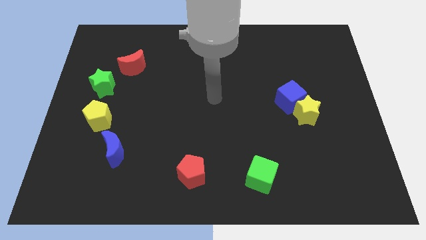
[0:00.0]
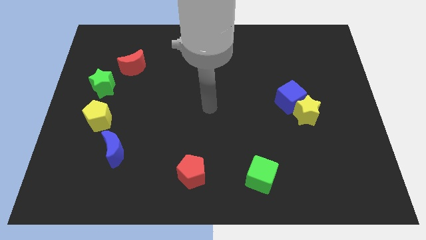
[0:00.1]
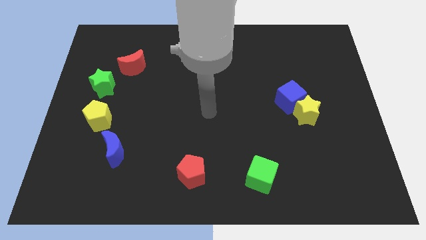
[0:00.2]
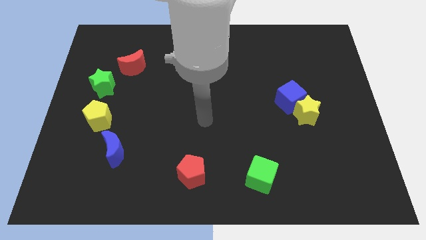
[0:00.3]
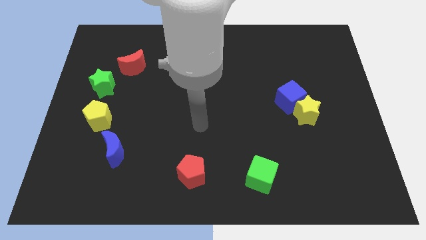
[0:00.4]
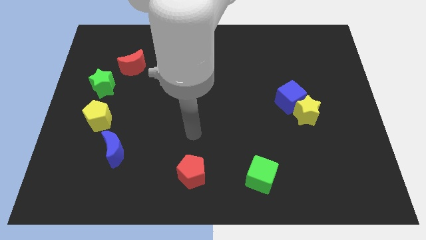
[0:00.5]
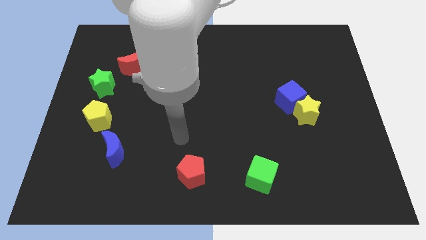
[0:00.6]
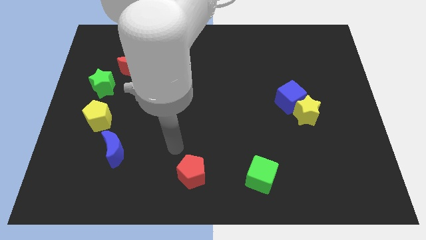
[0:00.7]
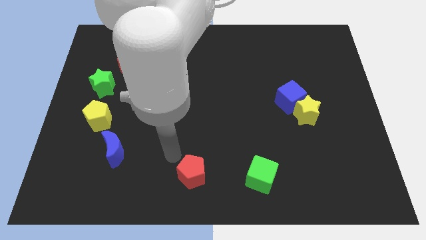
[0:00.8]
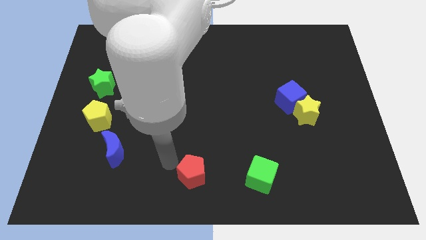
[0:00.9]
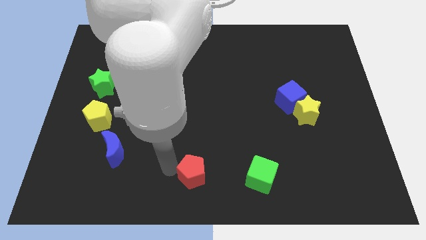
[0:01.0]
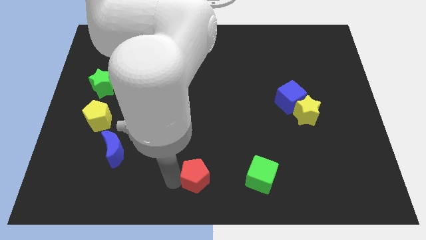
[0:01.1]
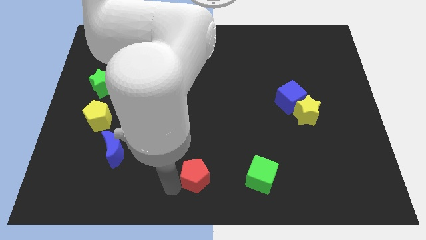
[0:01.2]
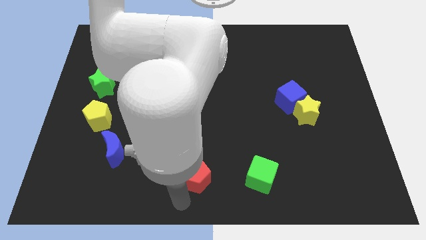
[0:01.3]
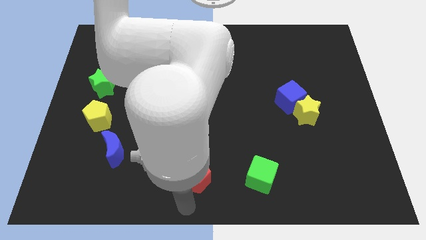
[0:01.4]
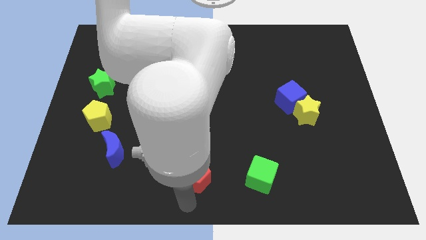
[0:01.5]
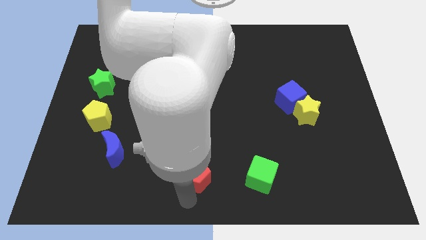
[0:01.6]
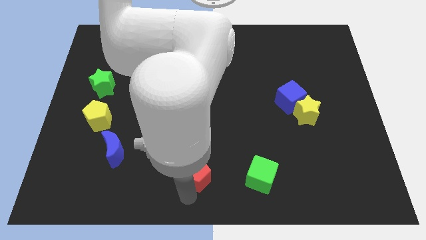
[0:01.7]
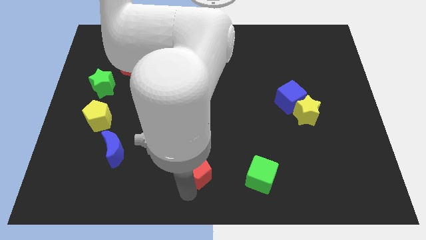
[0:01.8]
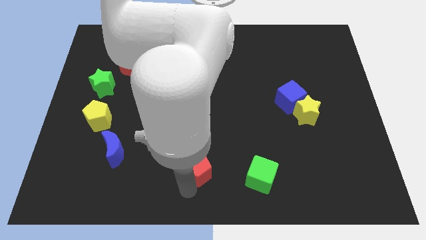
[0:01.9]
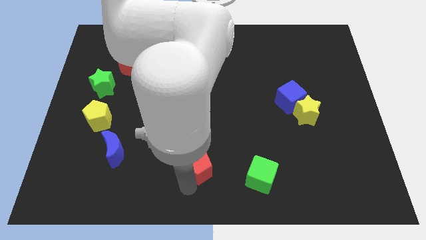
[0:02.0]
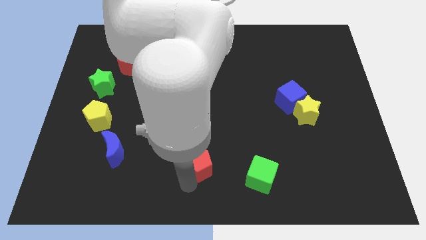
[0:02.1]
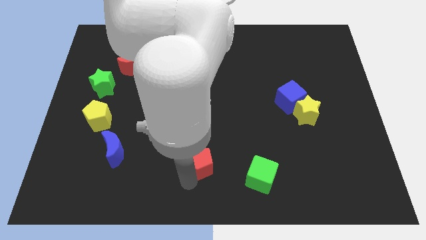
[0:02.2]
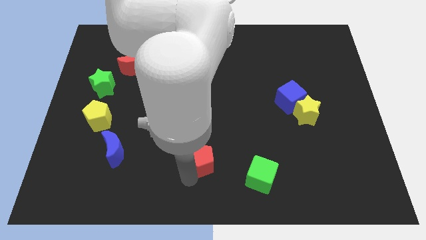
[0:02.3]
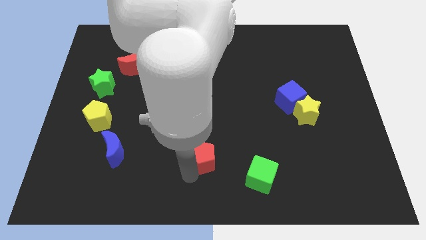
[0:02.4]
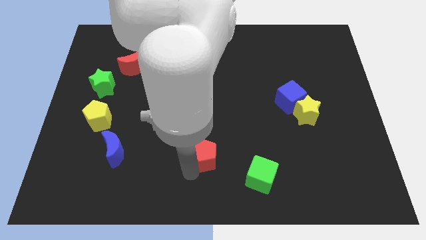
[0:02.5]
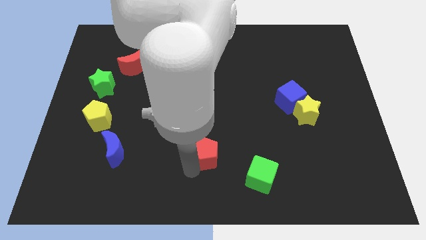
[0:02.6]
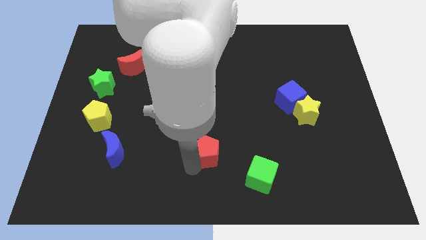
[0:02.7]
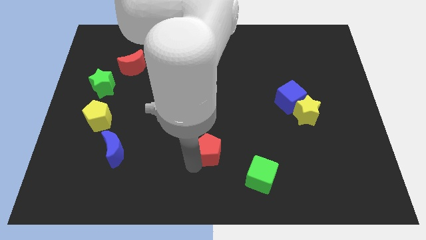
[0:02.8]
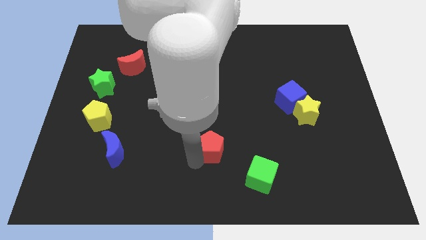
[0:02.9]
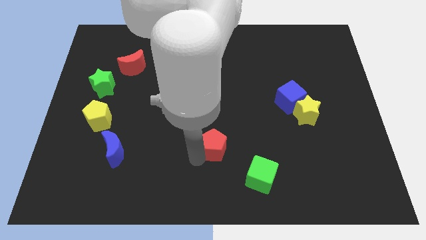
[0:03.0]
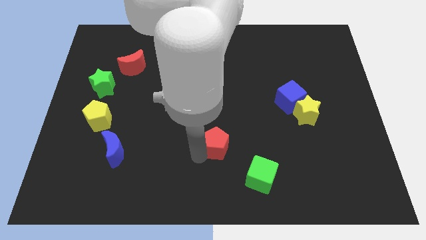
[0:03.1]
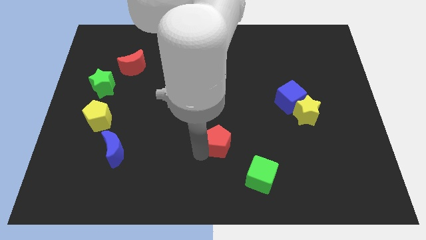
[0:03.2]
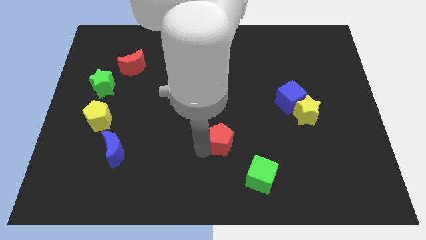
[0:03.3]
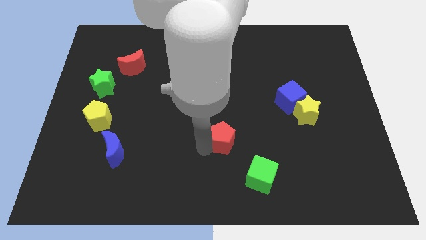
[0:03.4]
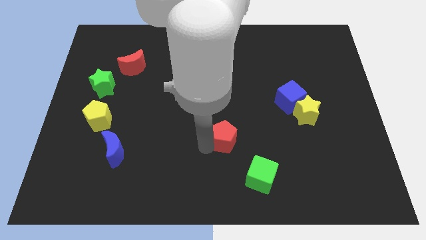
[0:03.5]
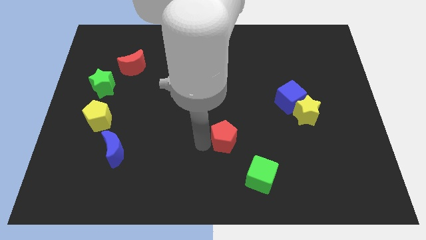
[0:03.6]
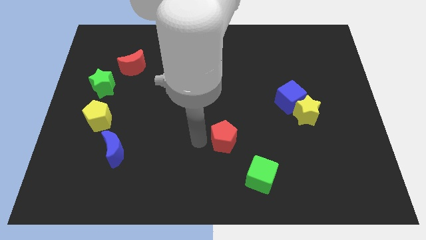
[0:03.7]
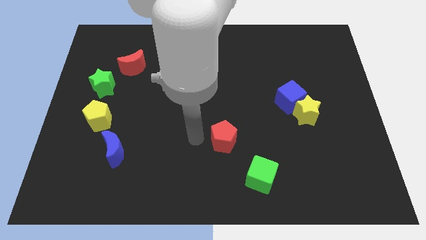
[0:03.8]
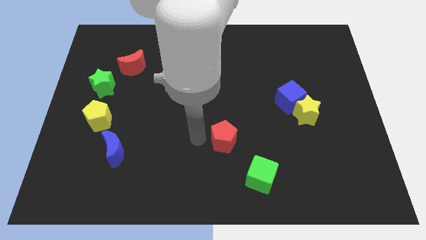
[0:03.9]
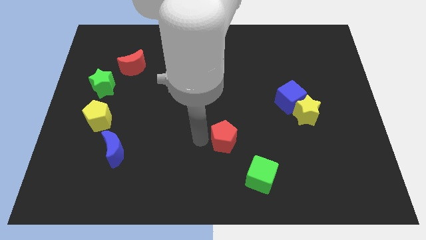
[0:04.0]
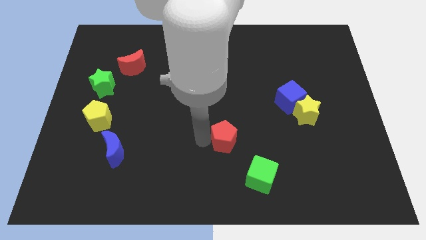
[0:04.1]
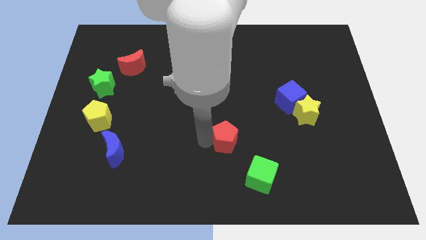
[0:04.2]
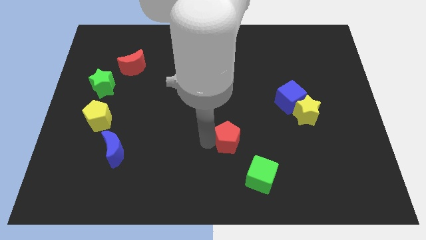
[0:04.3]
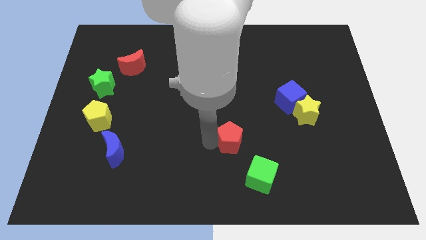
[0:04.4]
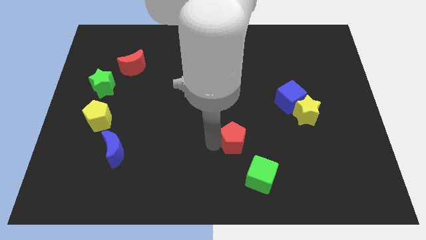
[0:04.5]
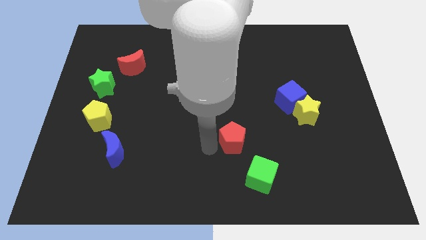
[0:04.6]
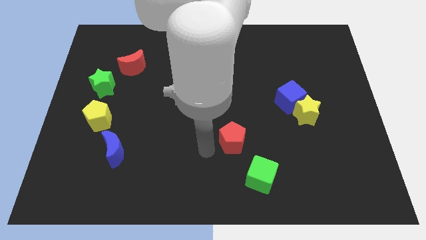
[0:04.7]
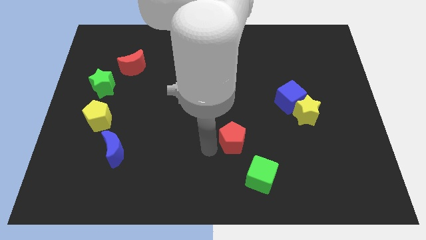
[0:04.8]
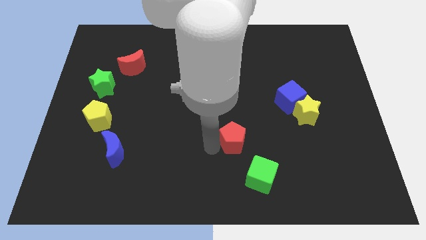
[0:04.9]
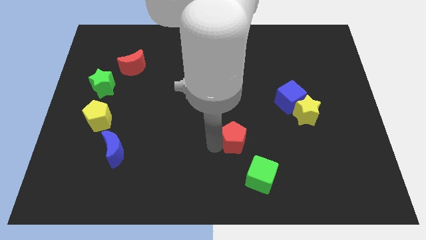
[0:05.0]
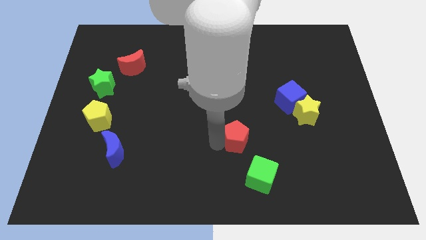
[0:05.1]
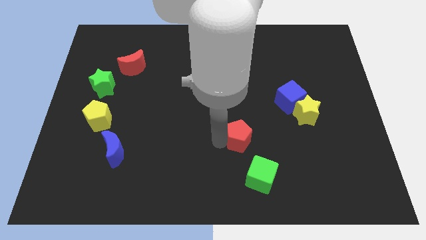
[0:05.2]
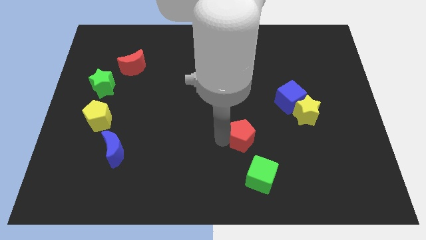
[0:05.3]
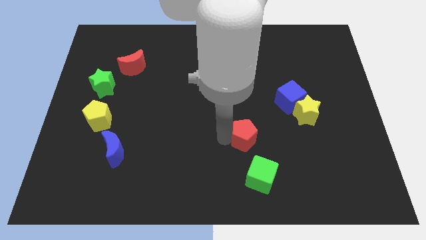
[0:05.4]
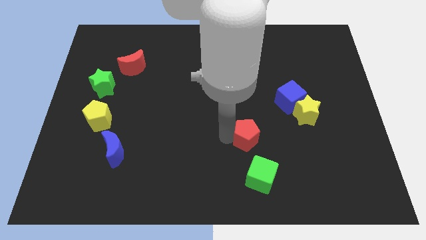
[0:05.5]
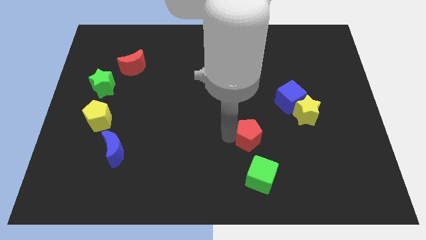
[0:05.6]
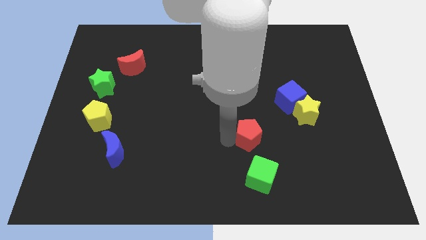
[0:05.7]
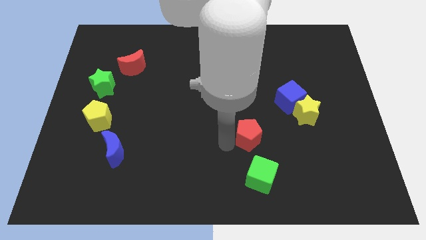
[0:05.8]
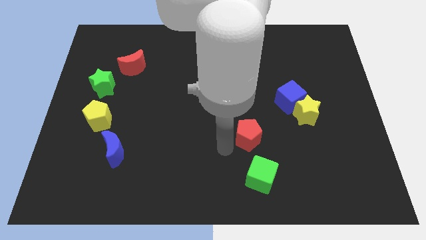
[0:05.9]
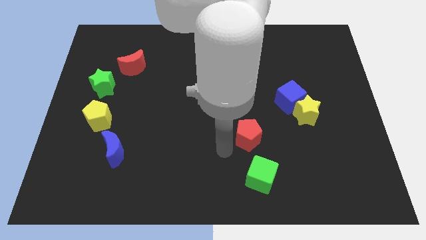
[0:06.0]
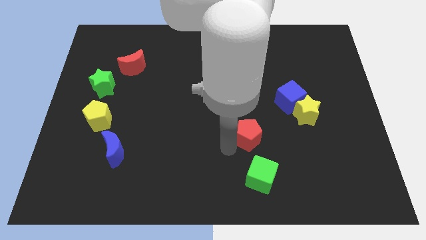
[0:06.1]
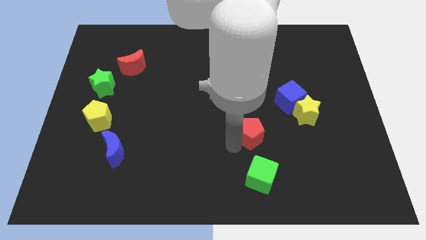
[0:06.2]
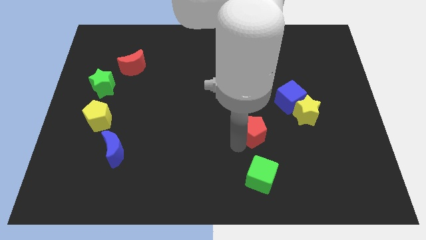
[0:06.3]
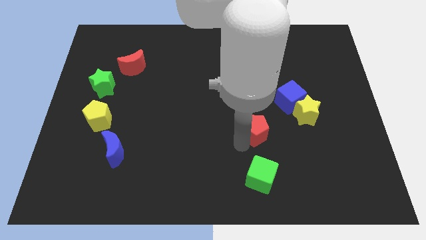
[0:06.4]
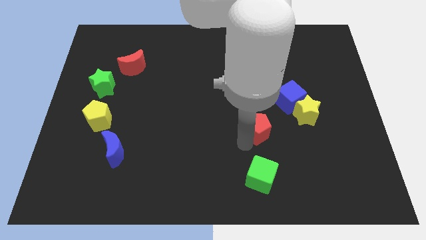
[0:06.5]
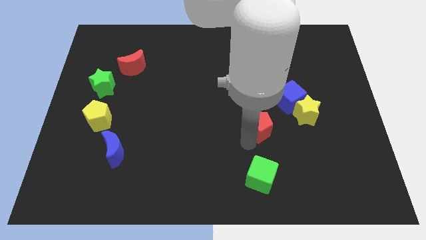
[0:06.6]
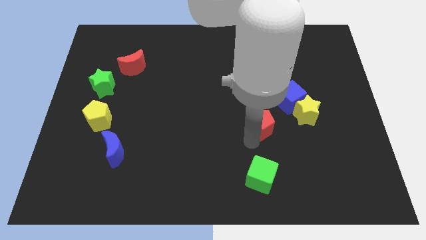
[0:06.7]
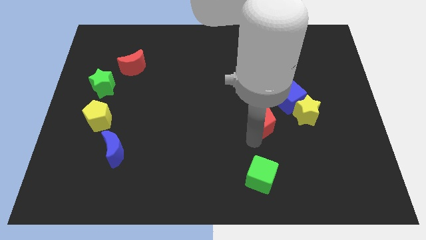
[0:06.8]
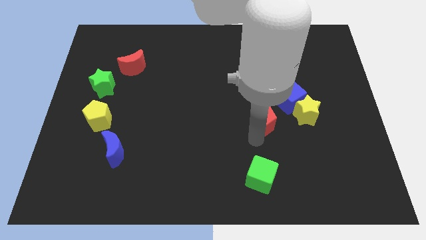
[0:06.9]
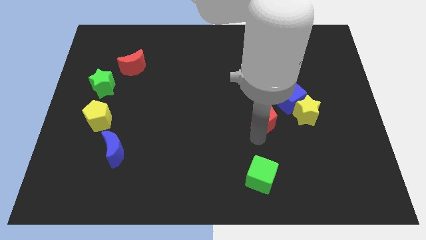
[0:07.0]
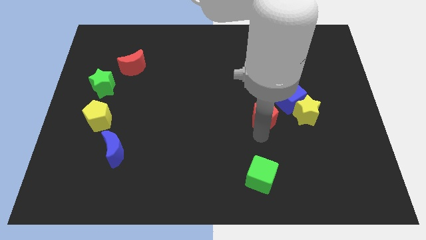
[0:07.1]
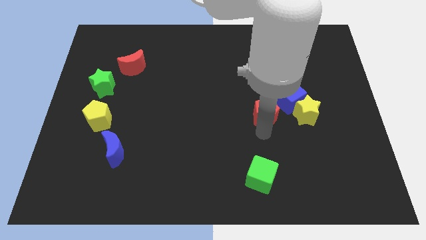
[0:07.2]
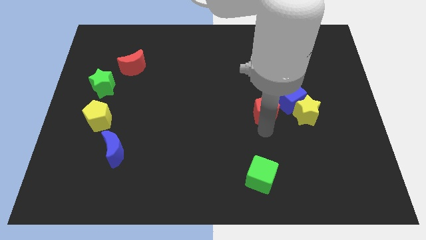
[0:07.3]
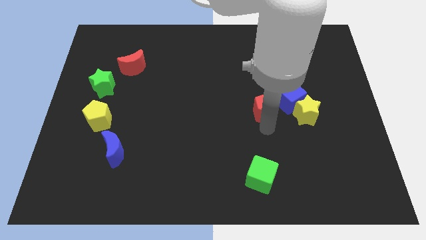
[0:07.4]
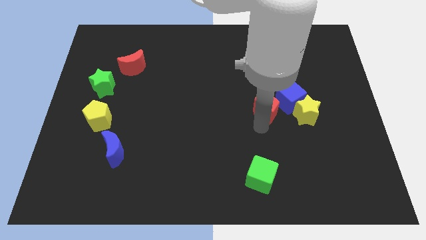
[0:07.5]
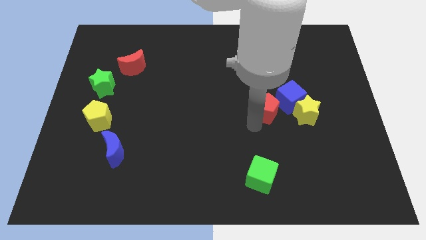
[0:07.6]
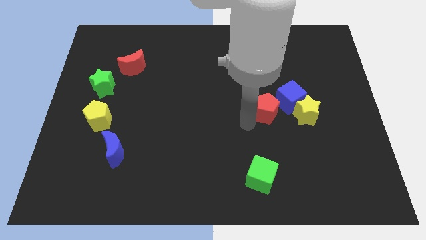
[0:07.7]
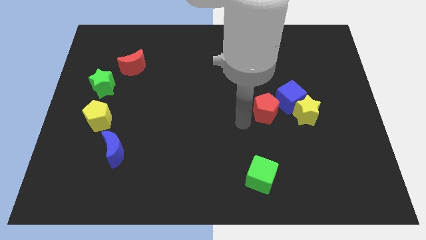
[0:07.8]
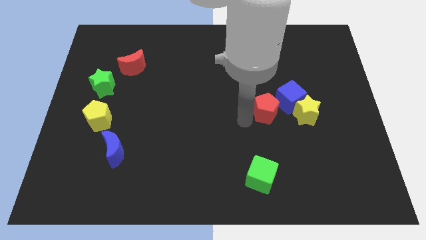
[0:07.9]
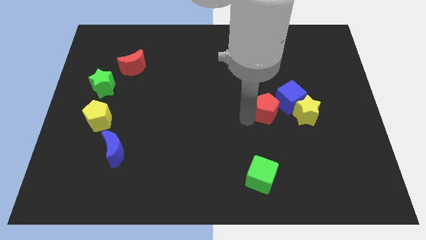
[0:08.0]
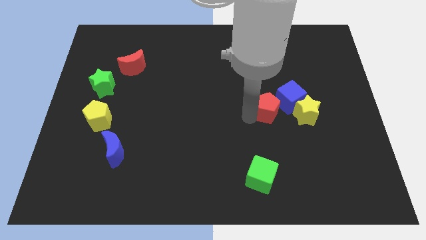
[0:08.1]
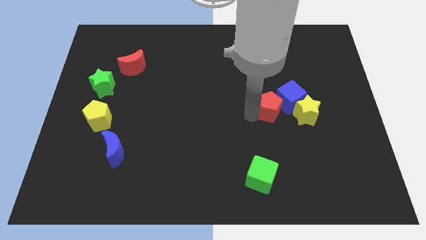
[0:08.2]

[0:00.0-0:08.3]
push the red pentagon towards the blue cube
